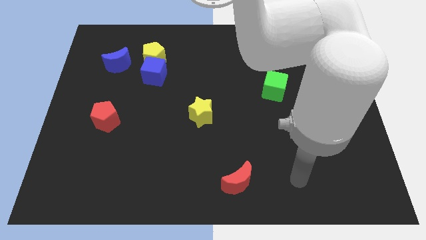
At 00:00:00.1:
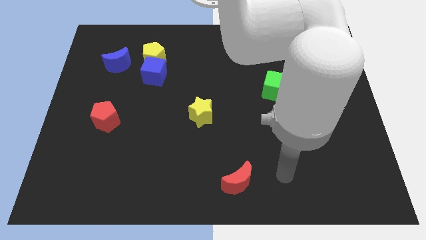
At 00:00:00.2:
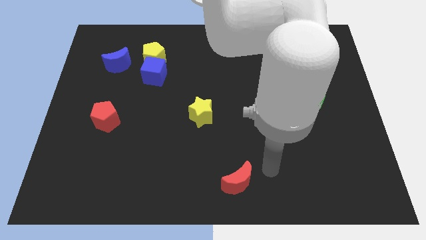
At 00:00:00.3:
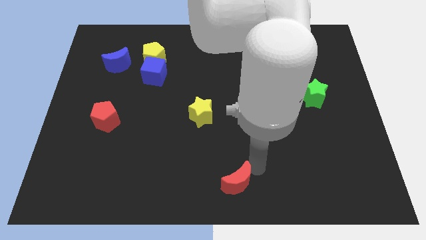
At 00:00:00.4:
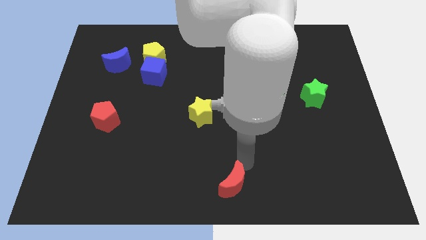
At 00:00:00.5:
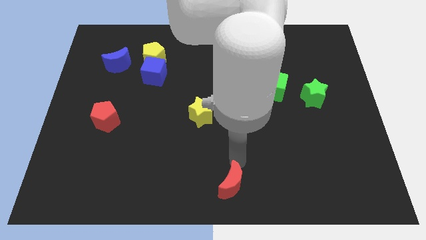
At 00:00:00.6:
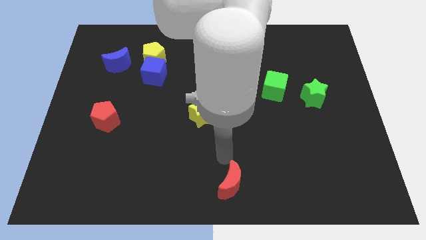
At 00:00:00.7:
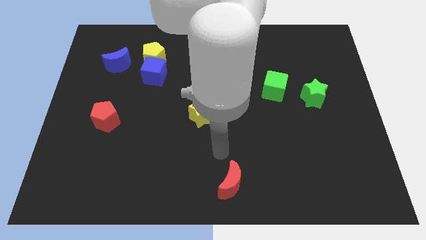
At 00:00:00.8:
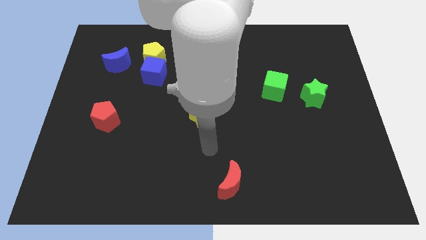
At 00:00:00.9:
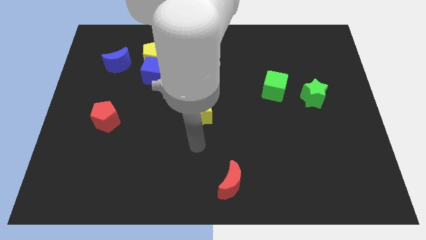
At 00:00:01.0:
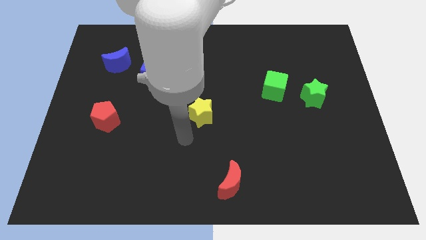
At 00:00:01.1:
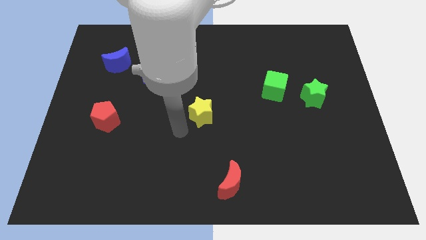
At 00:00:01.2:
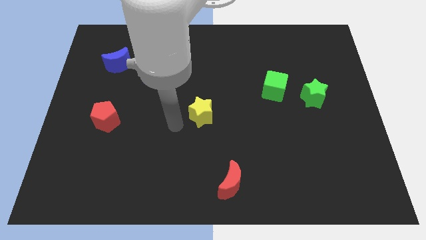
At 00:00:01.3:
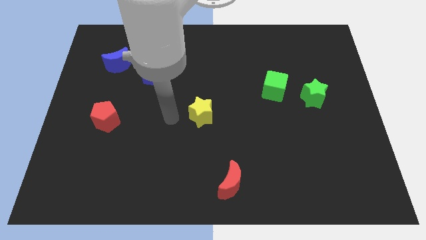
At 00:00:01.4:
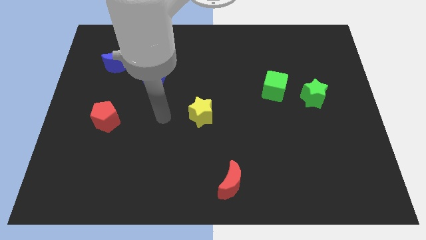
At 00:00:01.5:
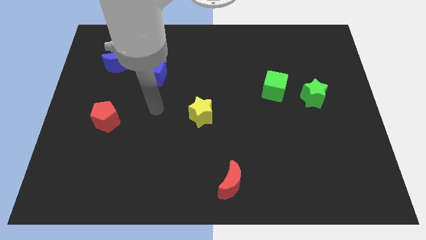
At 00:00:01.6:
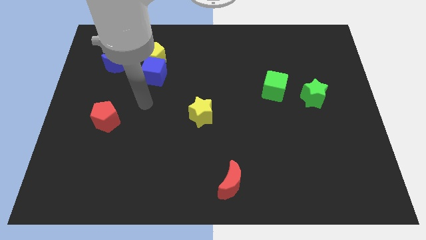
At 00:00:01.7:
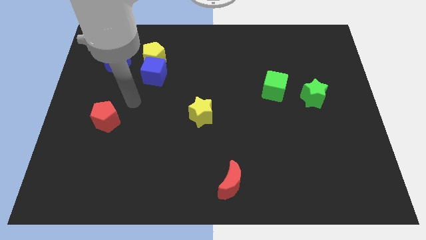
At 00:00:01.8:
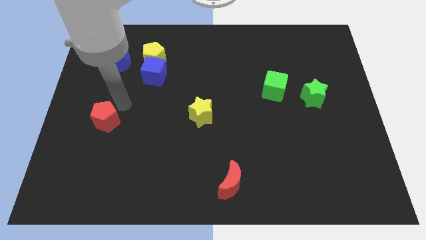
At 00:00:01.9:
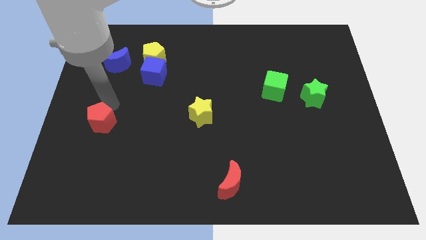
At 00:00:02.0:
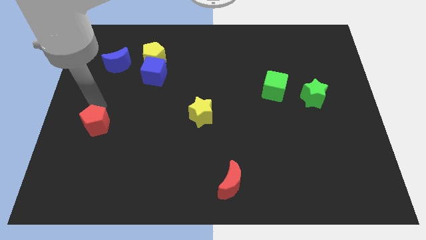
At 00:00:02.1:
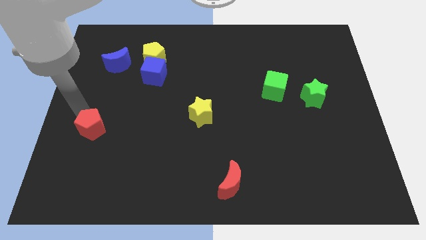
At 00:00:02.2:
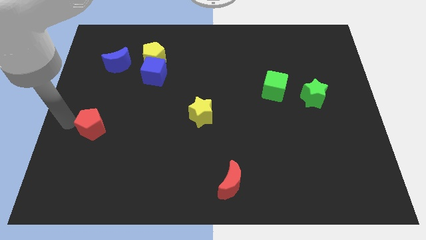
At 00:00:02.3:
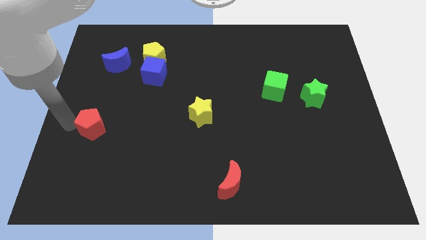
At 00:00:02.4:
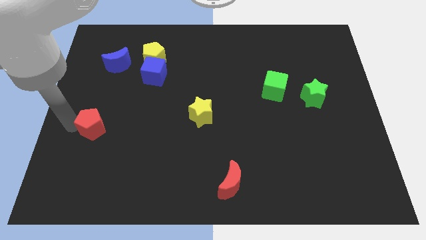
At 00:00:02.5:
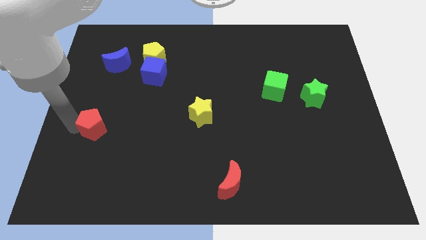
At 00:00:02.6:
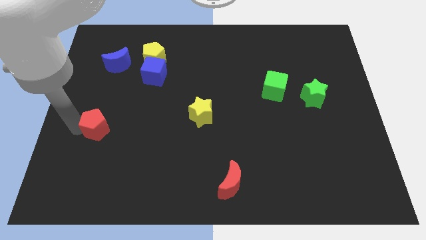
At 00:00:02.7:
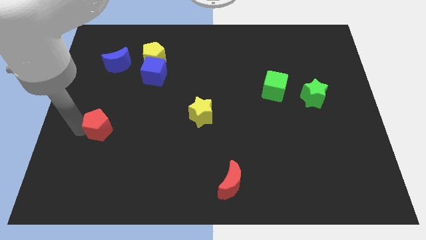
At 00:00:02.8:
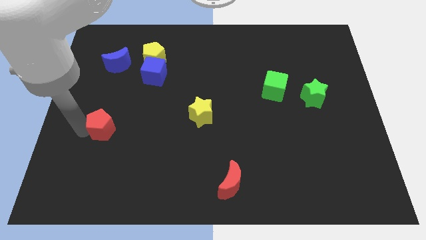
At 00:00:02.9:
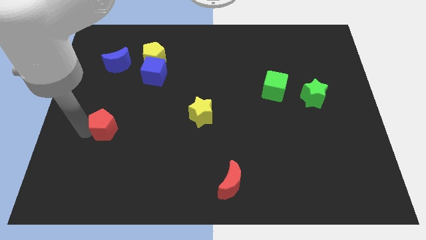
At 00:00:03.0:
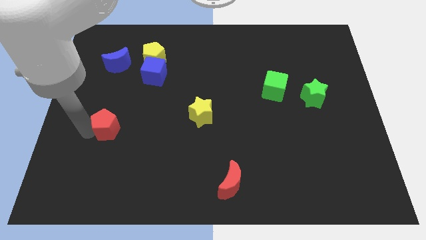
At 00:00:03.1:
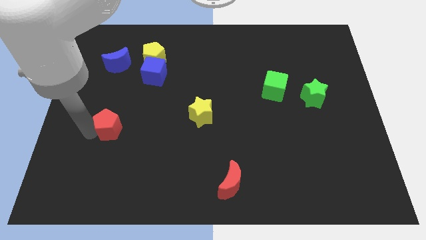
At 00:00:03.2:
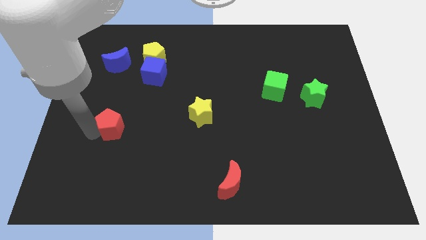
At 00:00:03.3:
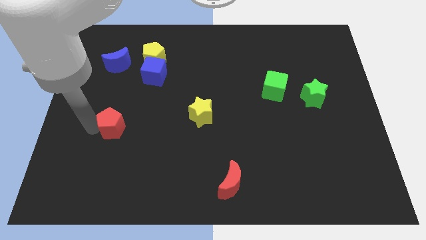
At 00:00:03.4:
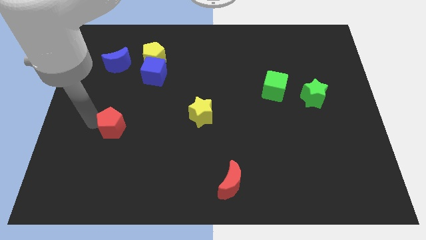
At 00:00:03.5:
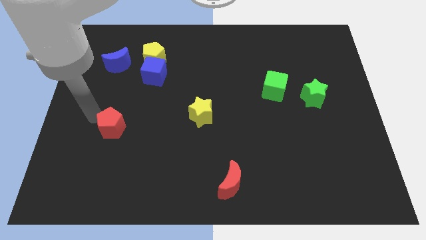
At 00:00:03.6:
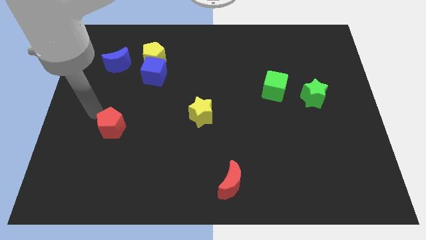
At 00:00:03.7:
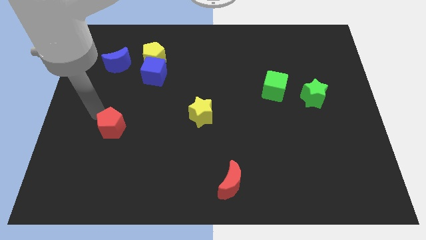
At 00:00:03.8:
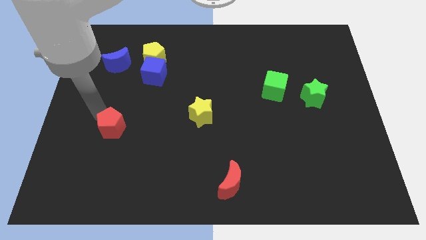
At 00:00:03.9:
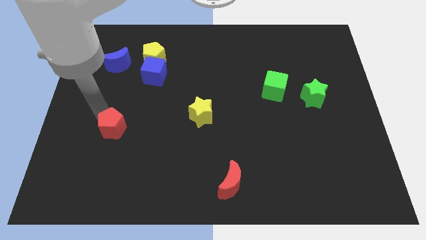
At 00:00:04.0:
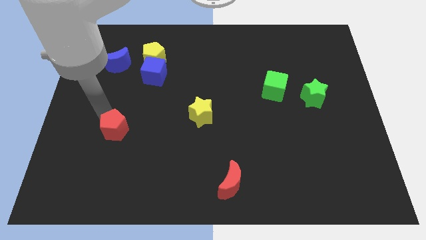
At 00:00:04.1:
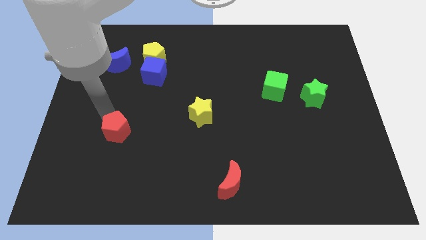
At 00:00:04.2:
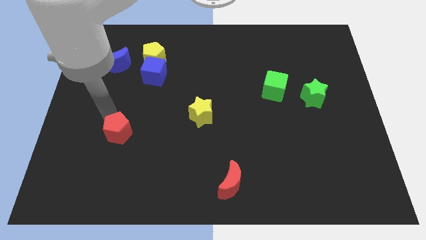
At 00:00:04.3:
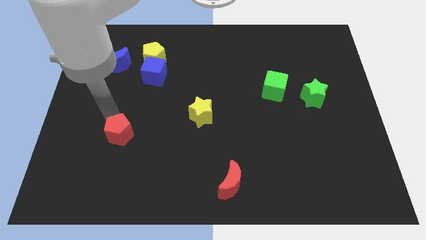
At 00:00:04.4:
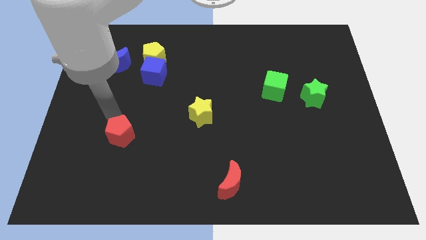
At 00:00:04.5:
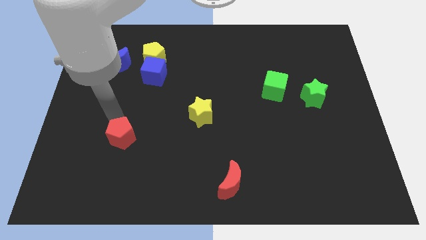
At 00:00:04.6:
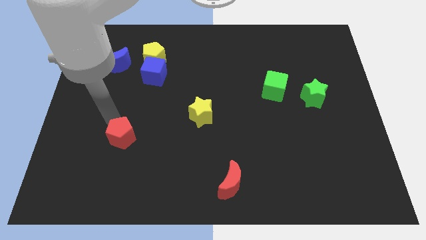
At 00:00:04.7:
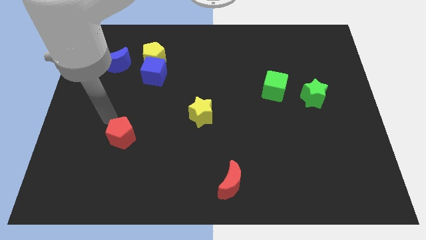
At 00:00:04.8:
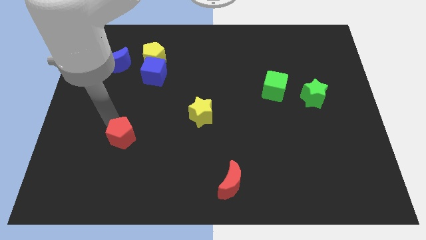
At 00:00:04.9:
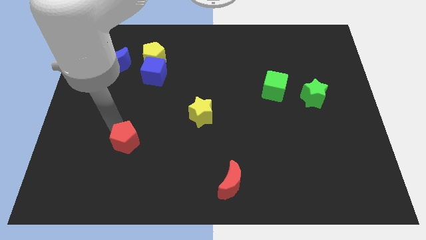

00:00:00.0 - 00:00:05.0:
move the red pentagon down and to the right slightly

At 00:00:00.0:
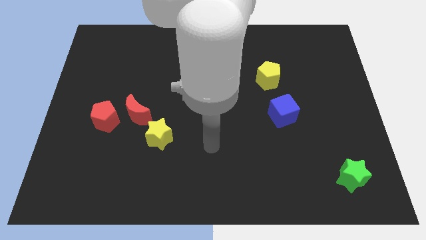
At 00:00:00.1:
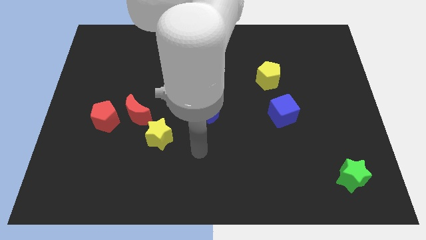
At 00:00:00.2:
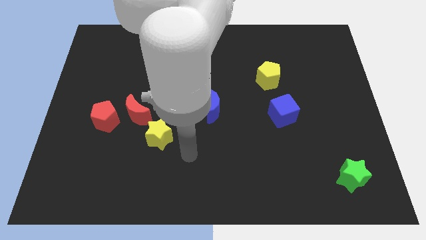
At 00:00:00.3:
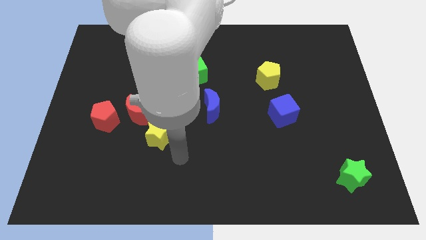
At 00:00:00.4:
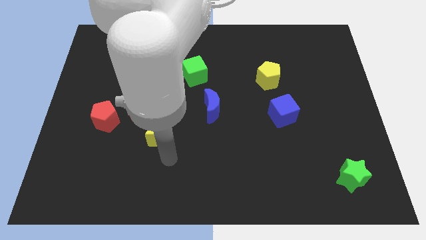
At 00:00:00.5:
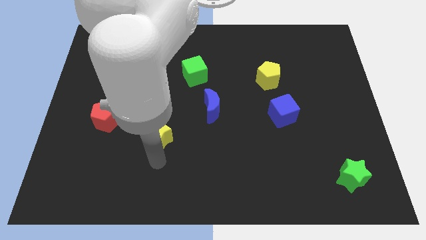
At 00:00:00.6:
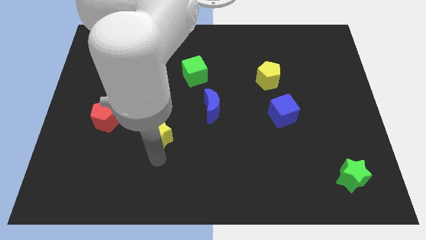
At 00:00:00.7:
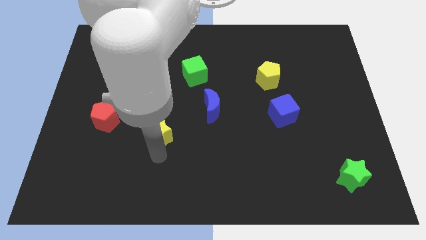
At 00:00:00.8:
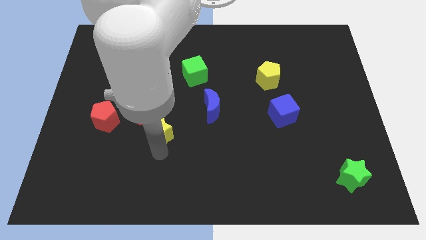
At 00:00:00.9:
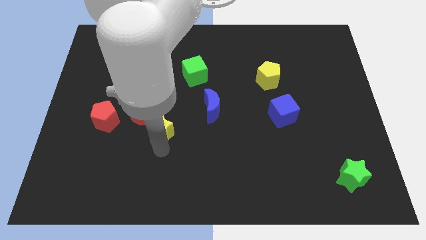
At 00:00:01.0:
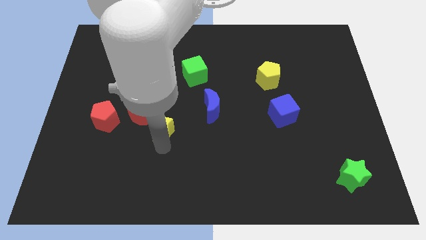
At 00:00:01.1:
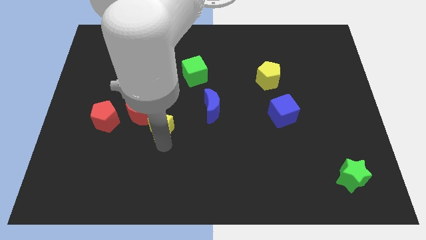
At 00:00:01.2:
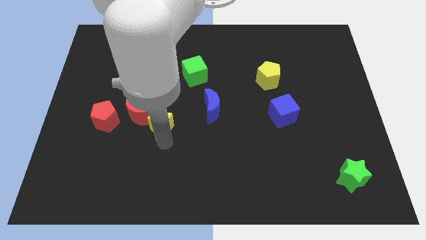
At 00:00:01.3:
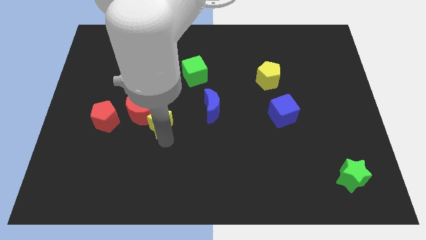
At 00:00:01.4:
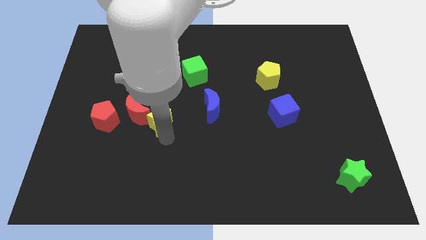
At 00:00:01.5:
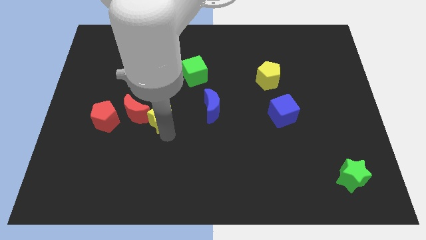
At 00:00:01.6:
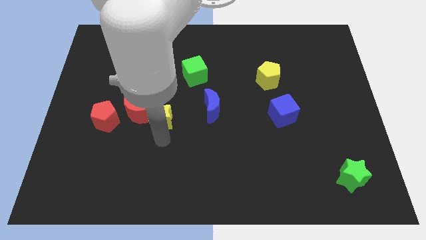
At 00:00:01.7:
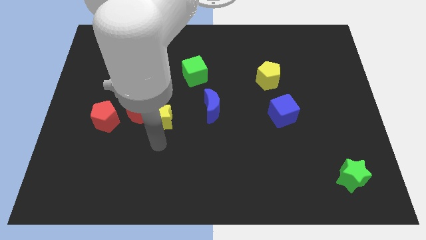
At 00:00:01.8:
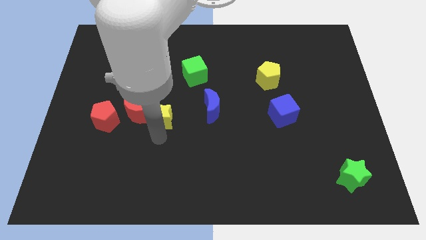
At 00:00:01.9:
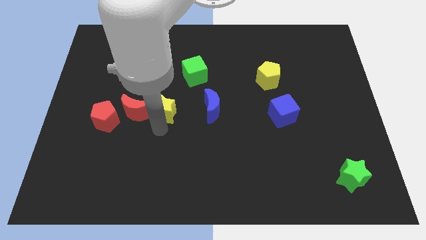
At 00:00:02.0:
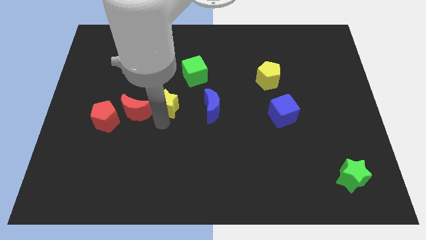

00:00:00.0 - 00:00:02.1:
move the yellow star upwards a bit

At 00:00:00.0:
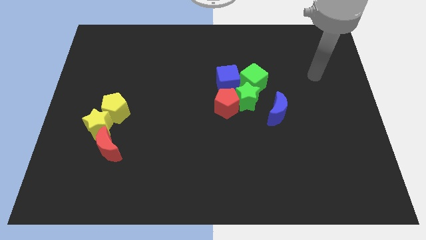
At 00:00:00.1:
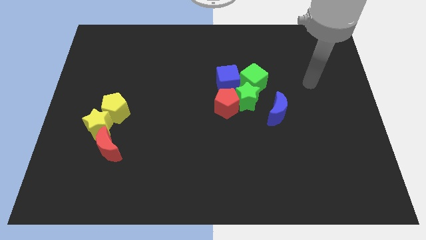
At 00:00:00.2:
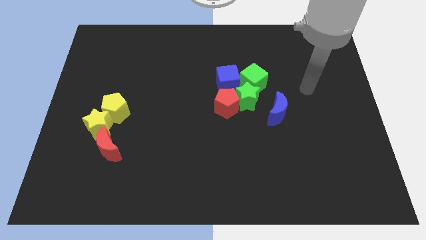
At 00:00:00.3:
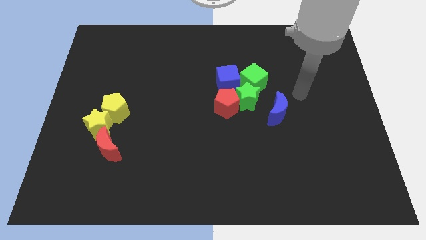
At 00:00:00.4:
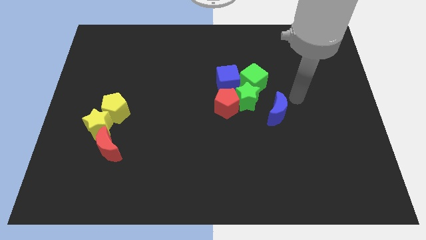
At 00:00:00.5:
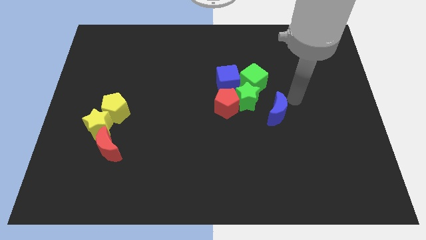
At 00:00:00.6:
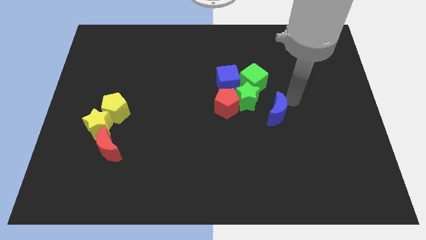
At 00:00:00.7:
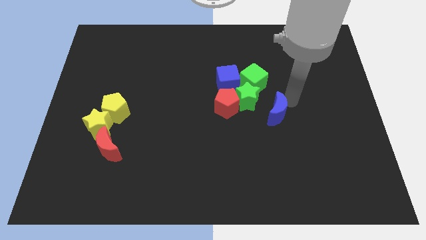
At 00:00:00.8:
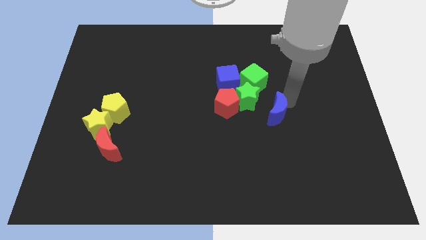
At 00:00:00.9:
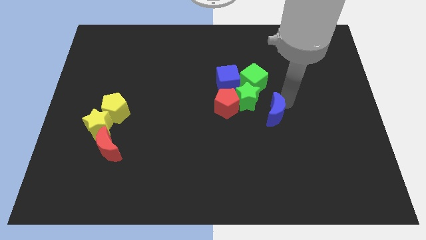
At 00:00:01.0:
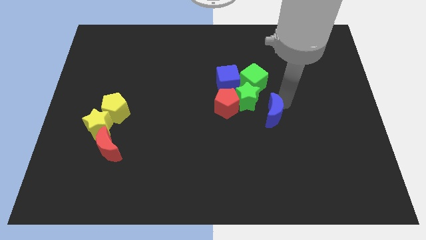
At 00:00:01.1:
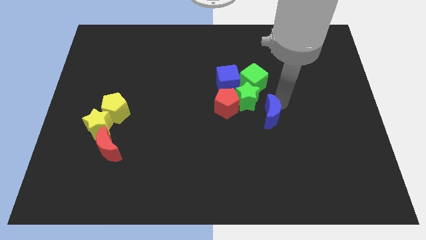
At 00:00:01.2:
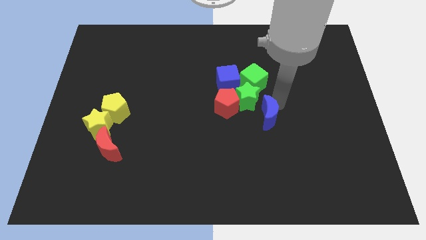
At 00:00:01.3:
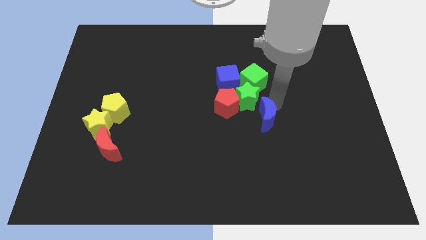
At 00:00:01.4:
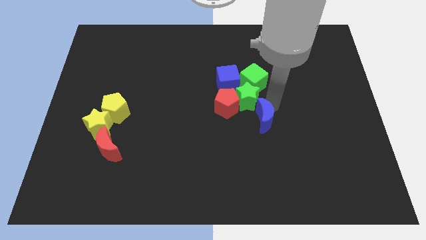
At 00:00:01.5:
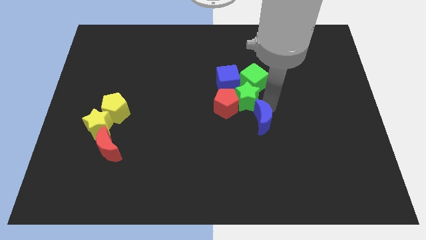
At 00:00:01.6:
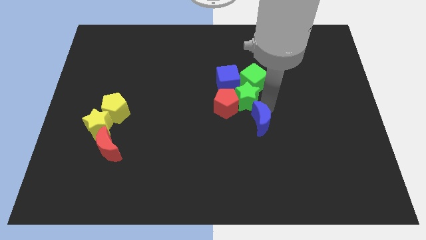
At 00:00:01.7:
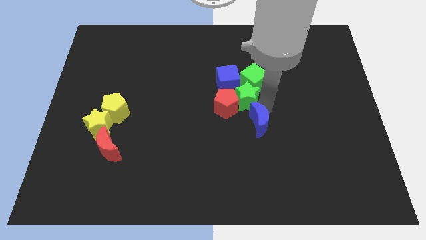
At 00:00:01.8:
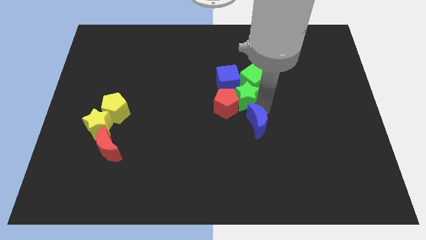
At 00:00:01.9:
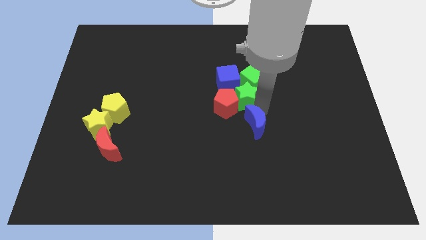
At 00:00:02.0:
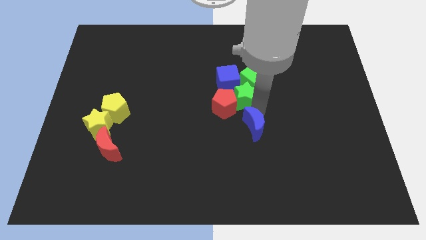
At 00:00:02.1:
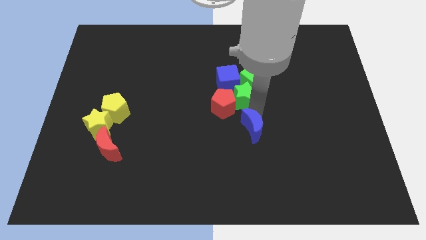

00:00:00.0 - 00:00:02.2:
move the blue moon down and then to the left a bit
